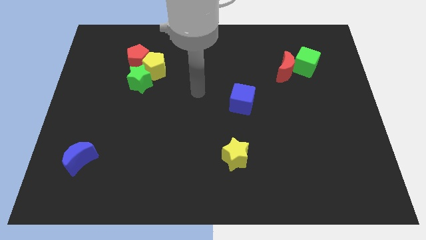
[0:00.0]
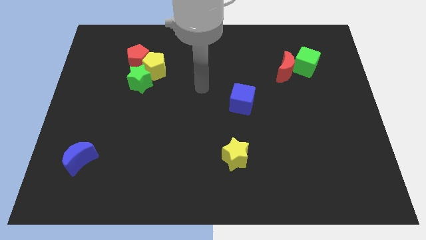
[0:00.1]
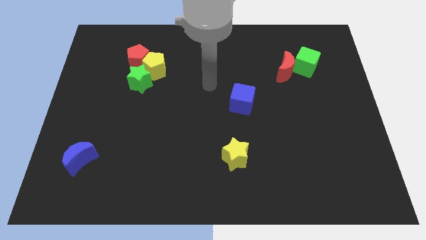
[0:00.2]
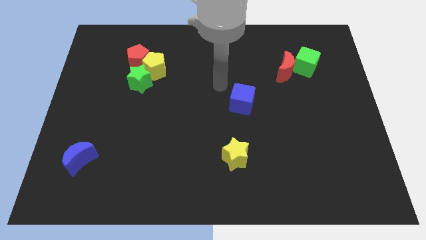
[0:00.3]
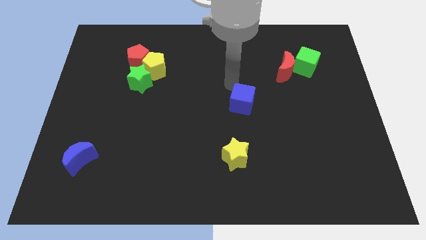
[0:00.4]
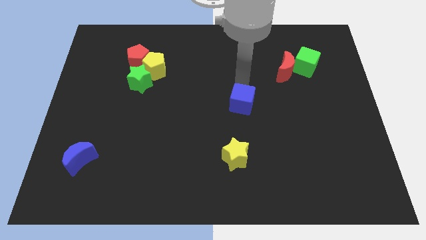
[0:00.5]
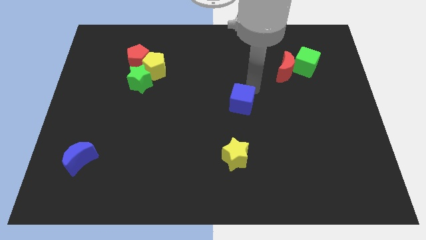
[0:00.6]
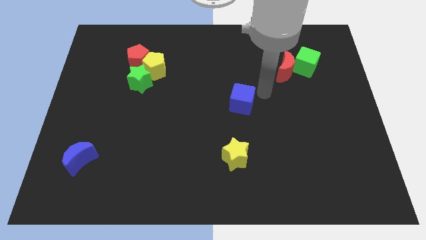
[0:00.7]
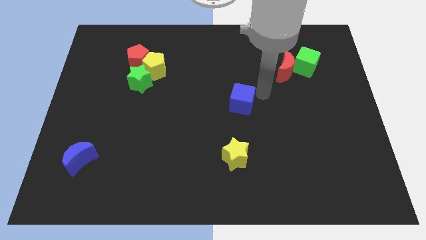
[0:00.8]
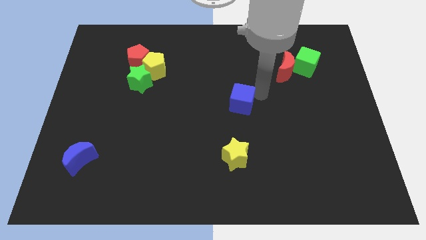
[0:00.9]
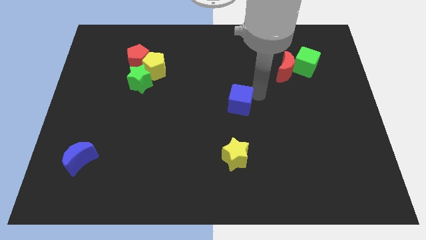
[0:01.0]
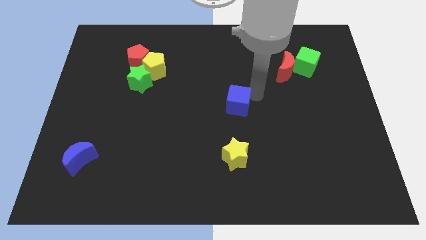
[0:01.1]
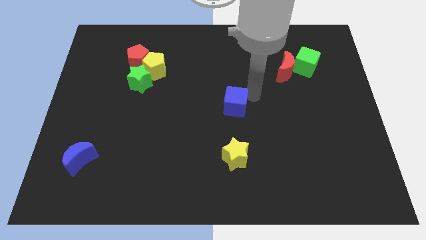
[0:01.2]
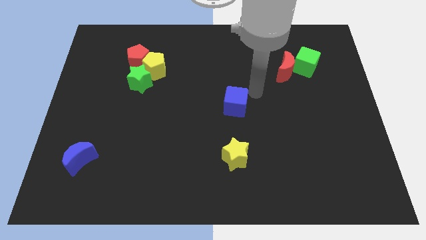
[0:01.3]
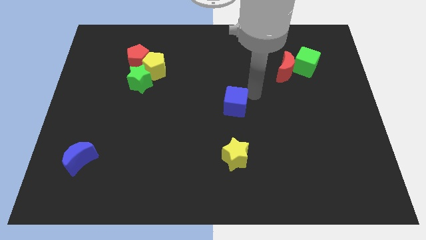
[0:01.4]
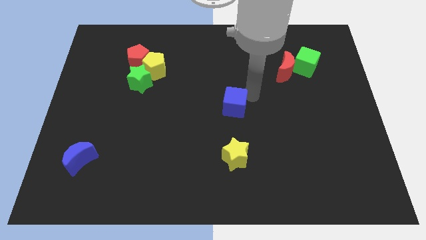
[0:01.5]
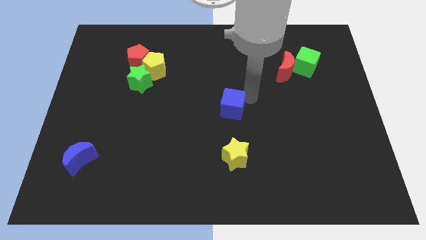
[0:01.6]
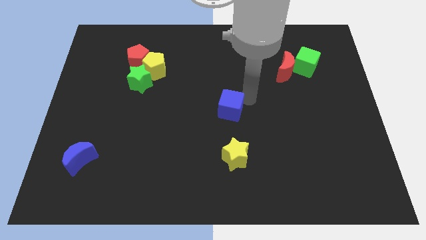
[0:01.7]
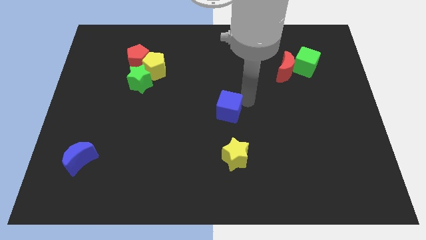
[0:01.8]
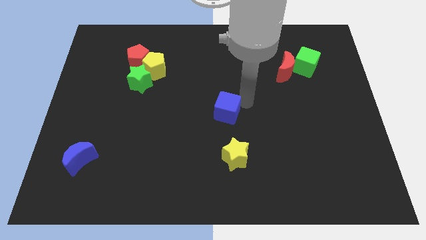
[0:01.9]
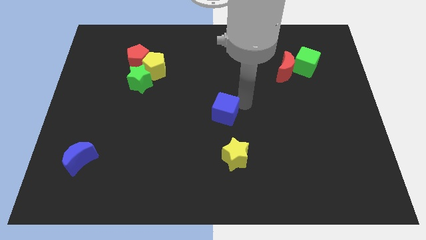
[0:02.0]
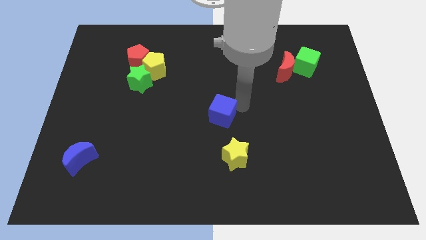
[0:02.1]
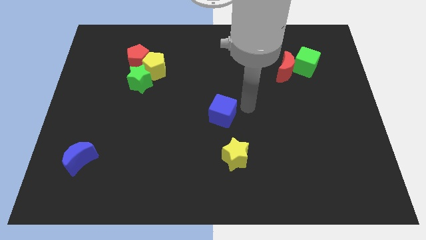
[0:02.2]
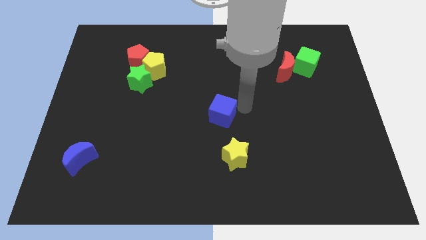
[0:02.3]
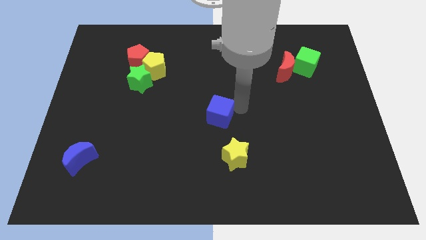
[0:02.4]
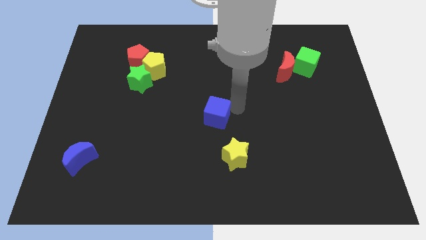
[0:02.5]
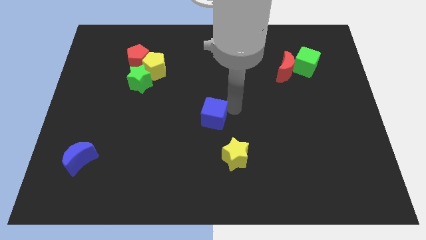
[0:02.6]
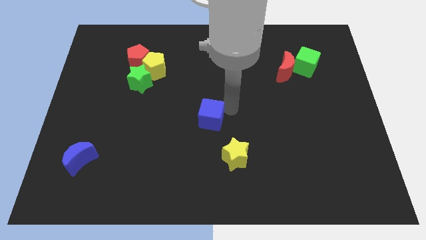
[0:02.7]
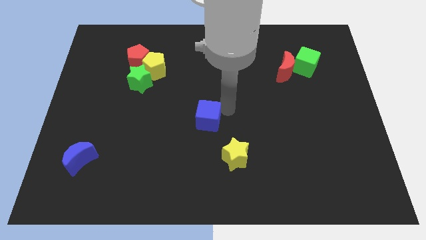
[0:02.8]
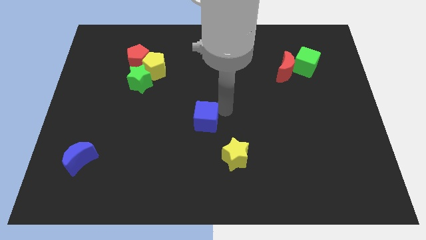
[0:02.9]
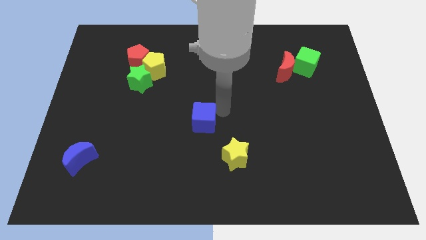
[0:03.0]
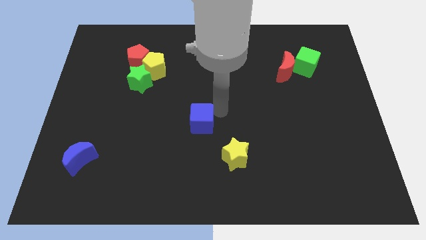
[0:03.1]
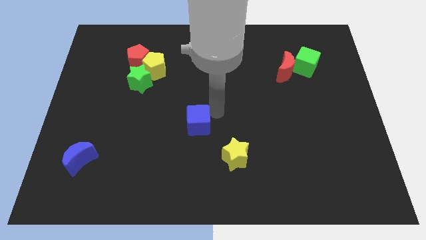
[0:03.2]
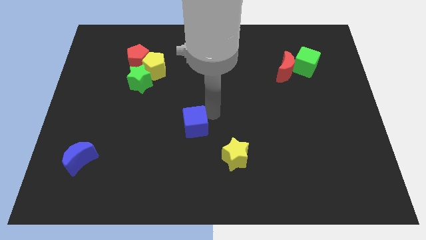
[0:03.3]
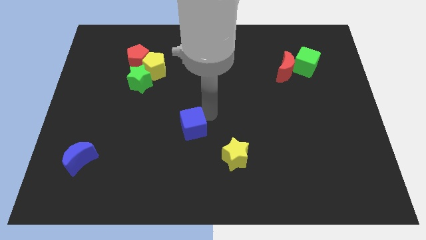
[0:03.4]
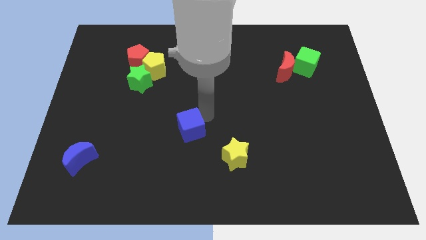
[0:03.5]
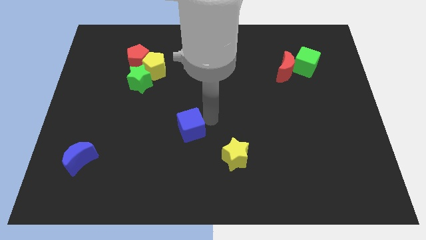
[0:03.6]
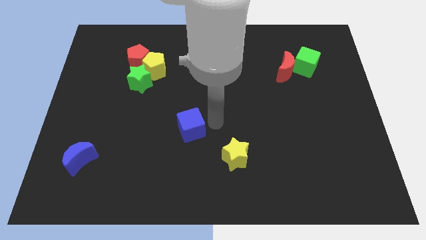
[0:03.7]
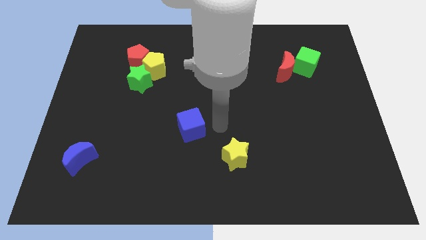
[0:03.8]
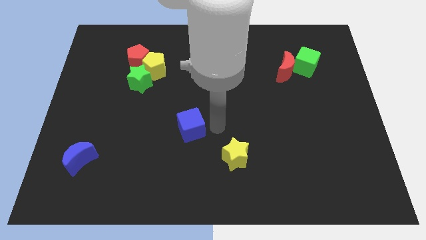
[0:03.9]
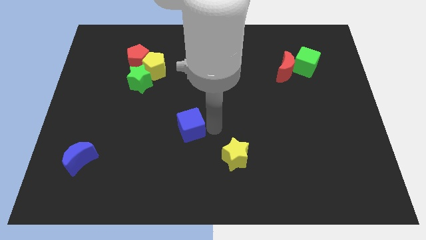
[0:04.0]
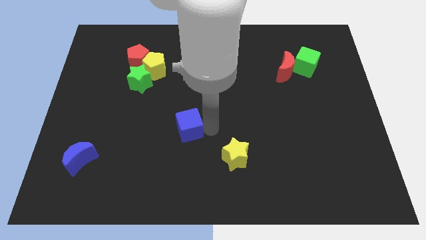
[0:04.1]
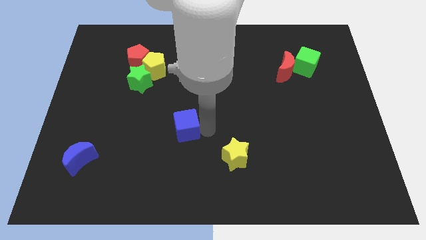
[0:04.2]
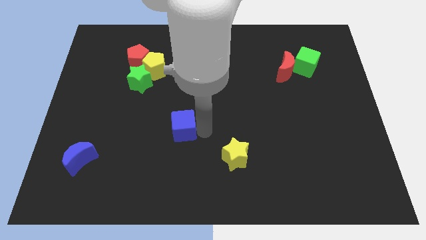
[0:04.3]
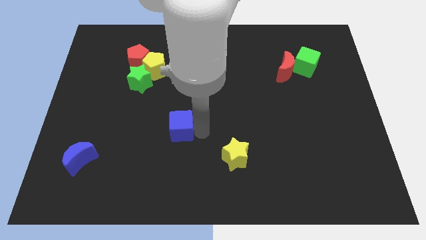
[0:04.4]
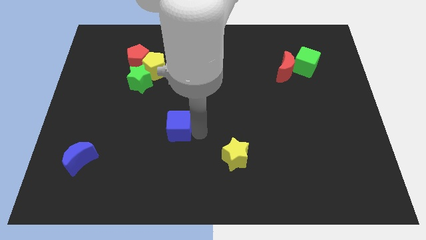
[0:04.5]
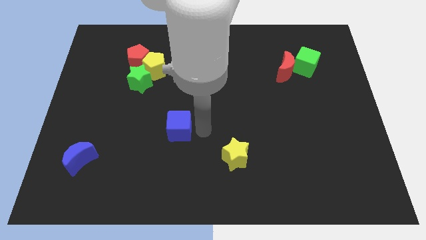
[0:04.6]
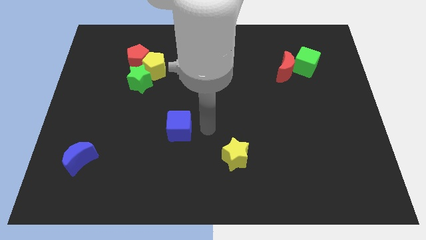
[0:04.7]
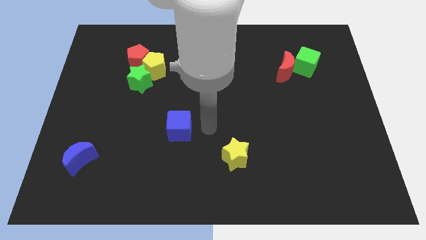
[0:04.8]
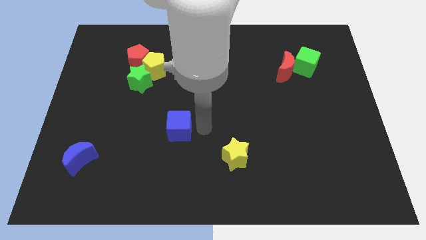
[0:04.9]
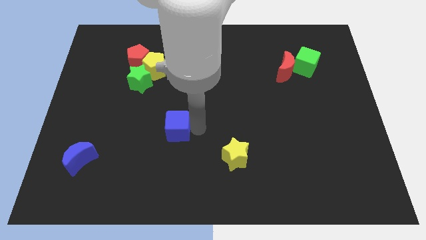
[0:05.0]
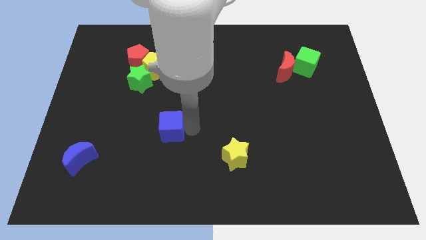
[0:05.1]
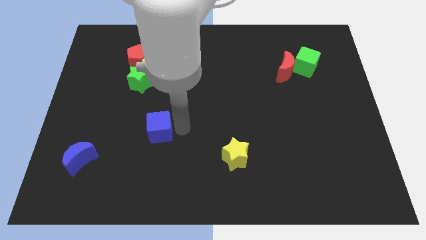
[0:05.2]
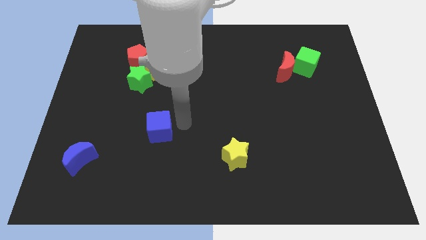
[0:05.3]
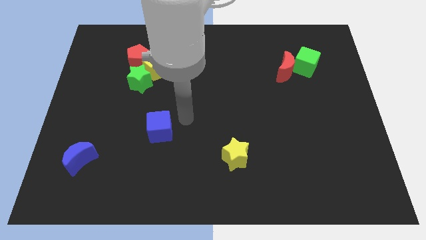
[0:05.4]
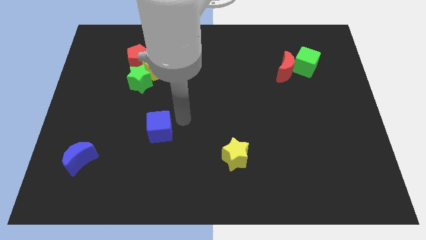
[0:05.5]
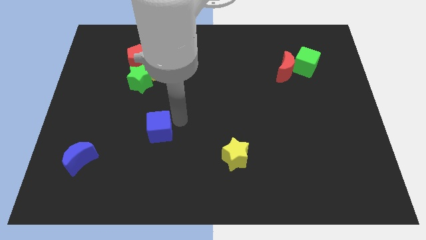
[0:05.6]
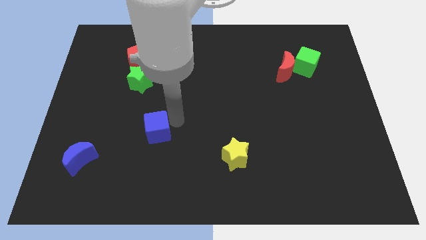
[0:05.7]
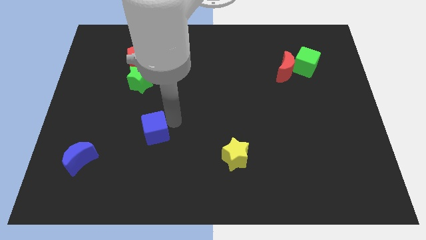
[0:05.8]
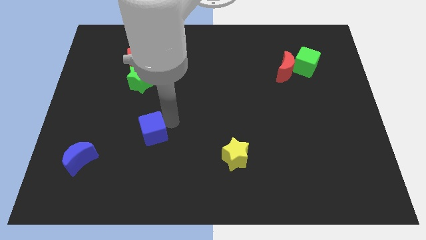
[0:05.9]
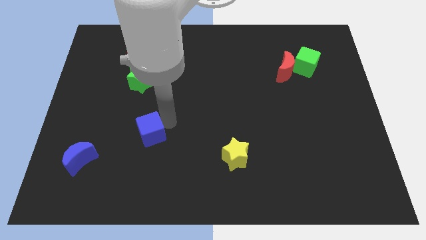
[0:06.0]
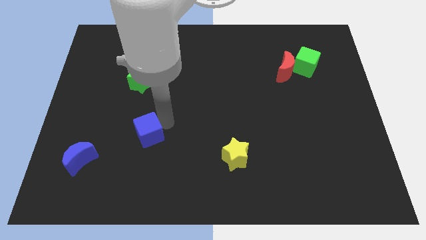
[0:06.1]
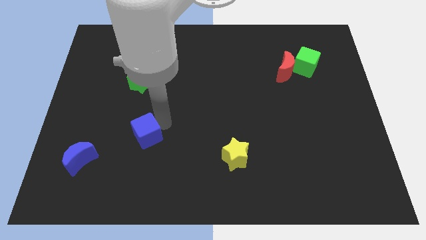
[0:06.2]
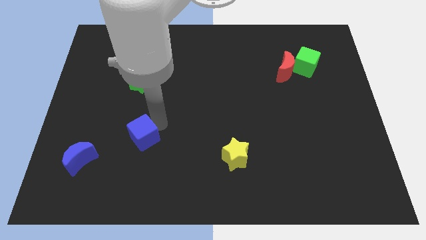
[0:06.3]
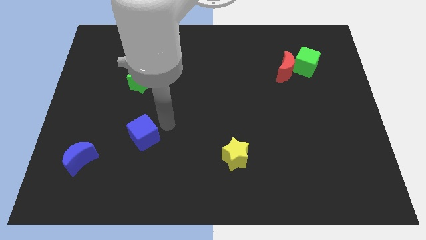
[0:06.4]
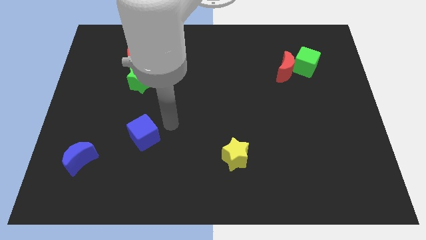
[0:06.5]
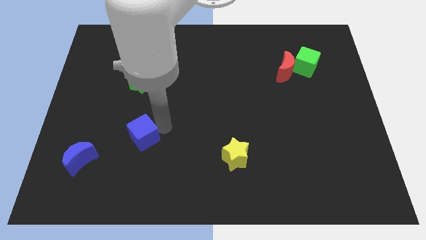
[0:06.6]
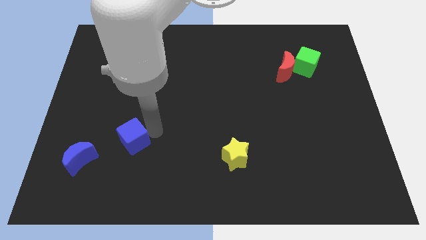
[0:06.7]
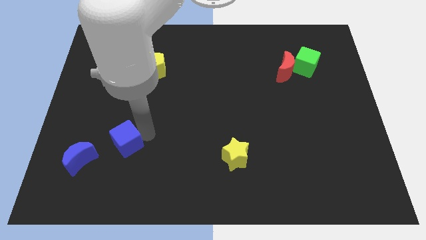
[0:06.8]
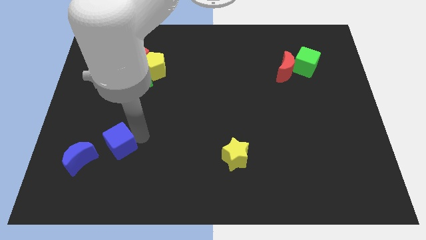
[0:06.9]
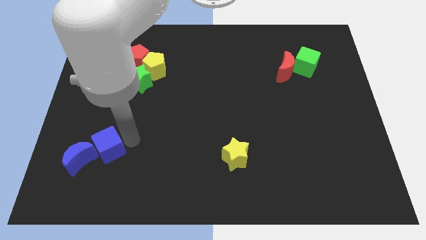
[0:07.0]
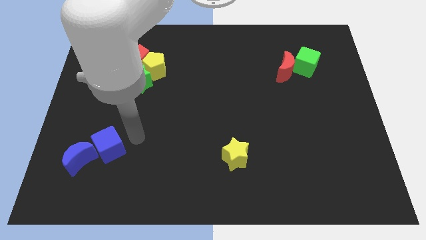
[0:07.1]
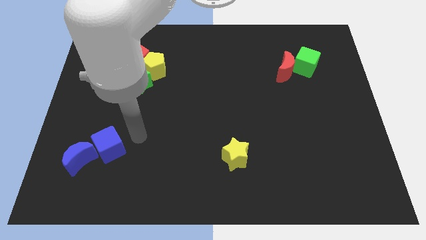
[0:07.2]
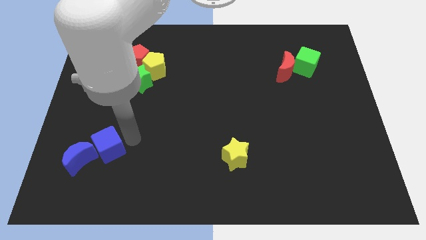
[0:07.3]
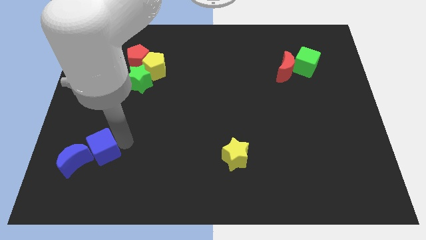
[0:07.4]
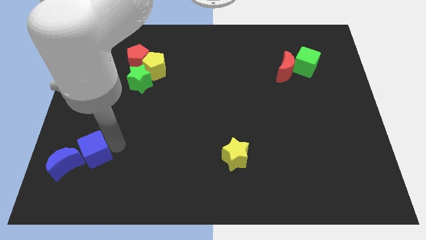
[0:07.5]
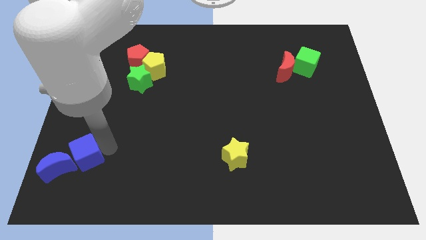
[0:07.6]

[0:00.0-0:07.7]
move the blue cube to the blue moon
